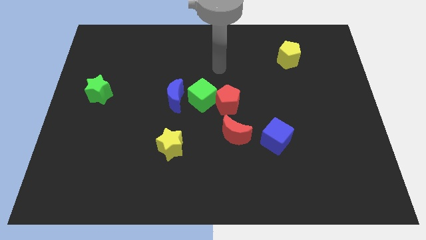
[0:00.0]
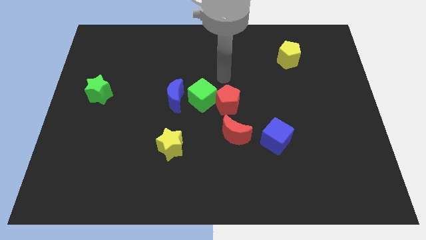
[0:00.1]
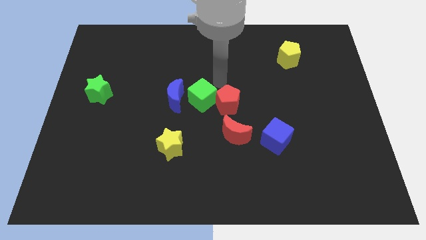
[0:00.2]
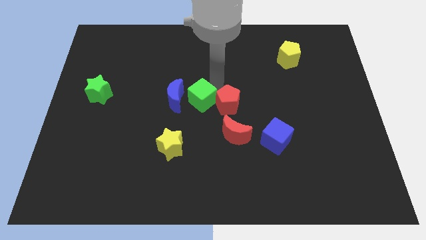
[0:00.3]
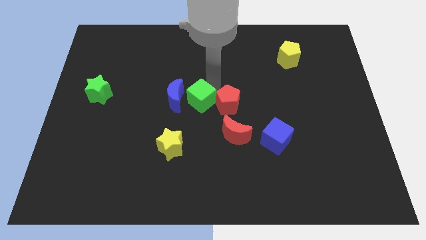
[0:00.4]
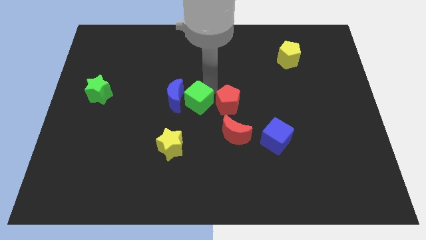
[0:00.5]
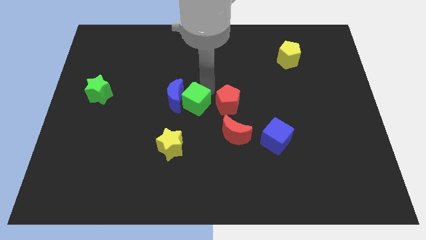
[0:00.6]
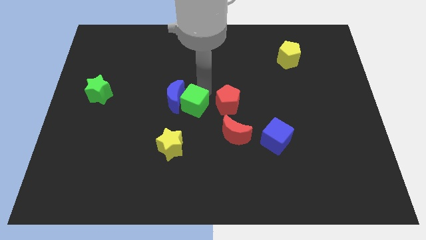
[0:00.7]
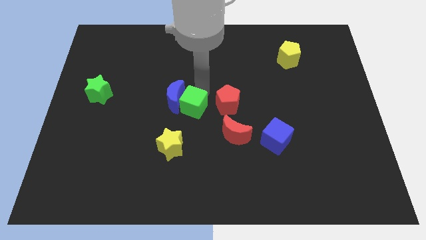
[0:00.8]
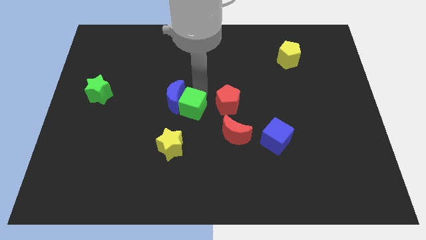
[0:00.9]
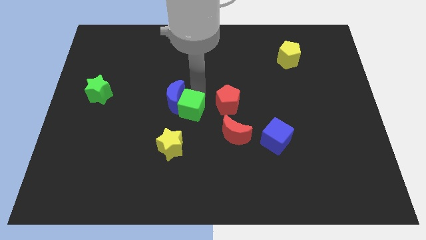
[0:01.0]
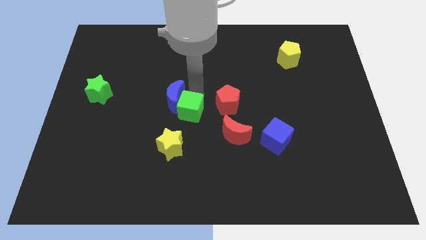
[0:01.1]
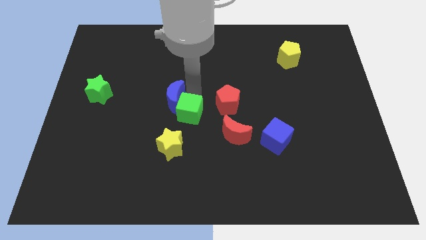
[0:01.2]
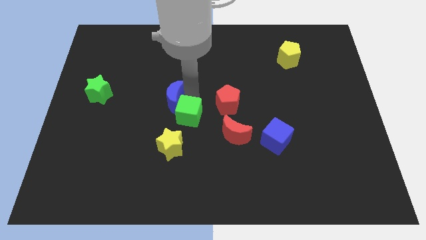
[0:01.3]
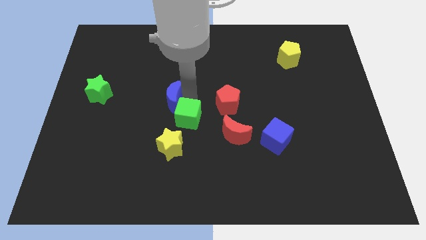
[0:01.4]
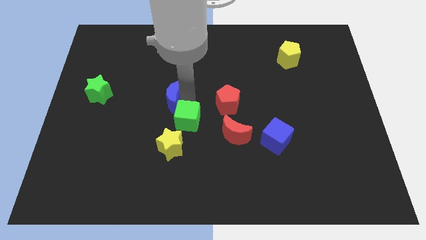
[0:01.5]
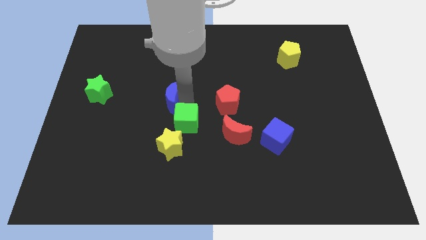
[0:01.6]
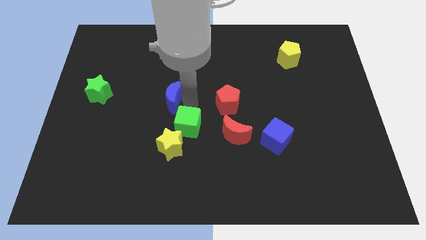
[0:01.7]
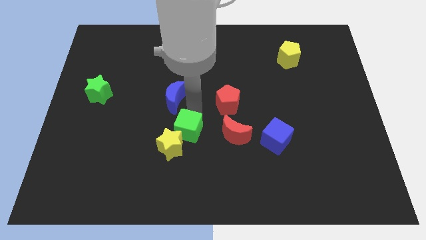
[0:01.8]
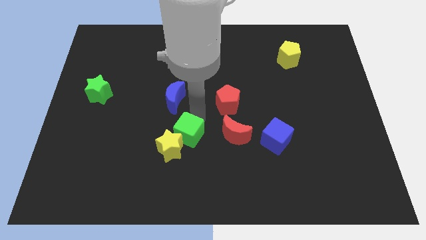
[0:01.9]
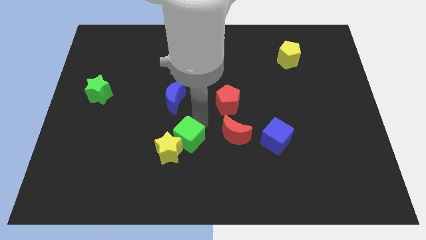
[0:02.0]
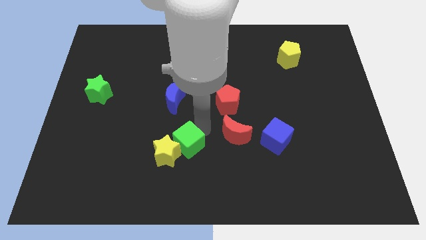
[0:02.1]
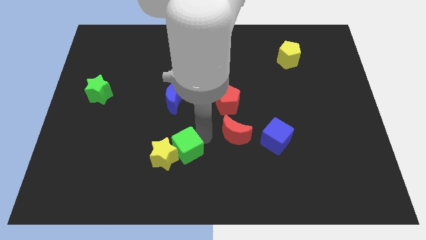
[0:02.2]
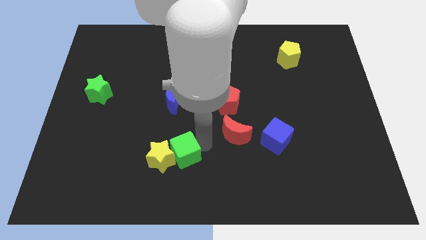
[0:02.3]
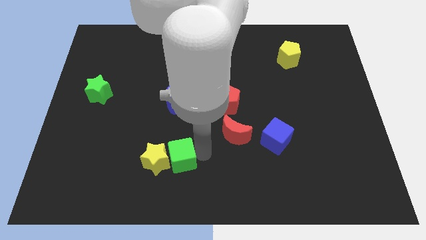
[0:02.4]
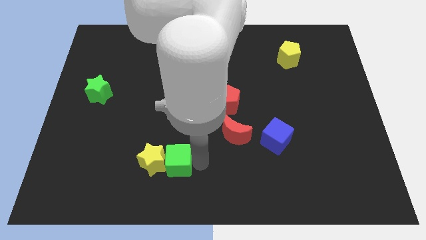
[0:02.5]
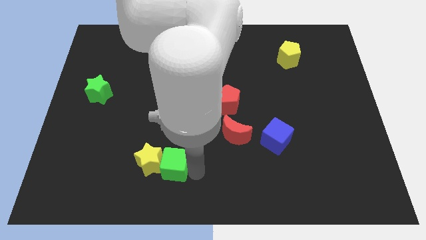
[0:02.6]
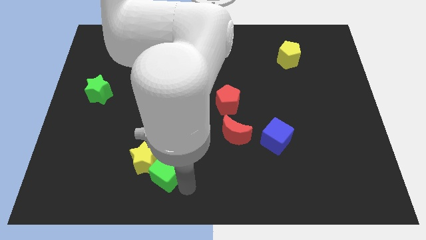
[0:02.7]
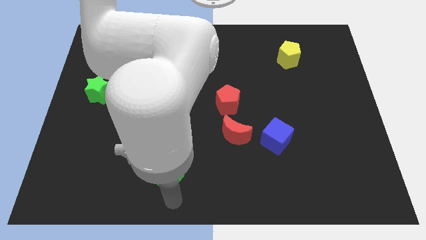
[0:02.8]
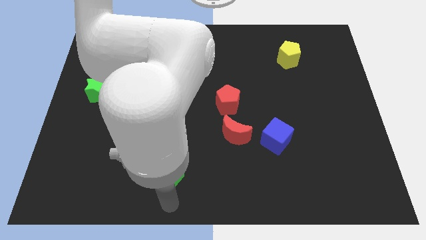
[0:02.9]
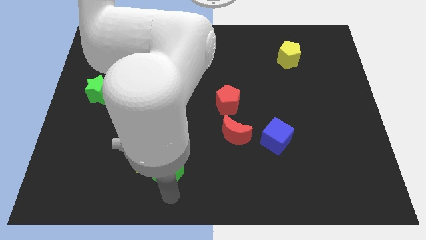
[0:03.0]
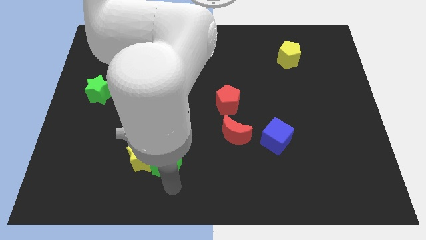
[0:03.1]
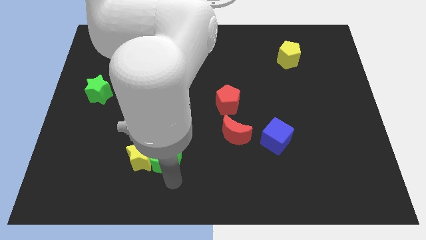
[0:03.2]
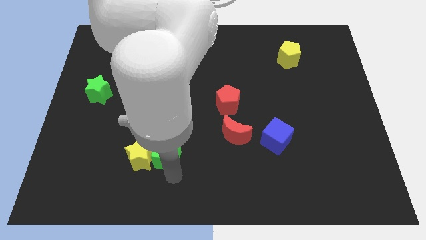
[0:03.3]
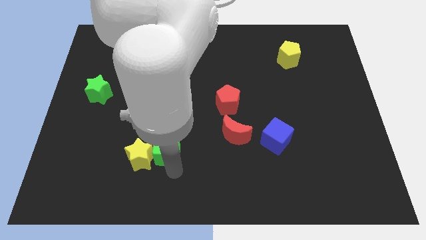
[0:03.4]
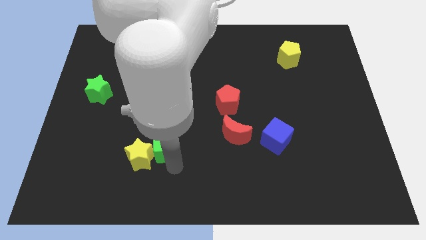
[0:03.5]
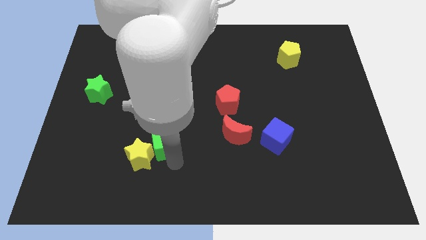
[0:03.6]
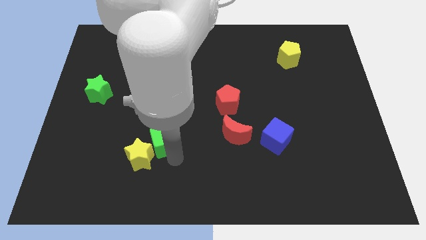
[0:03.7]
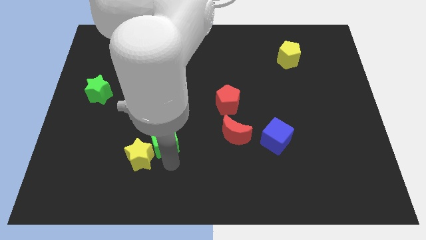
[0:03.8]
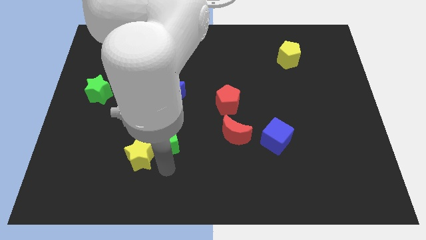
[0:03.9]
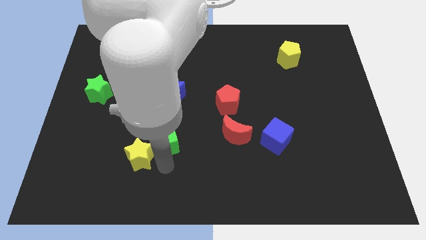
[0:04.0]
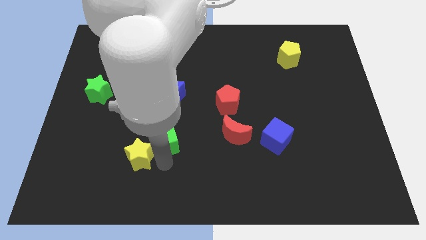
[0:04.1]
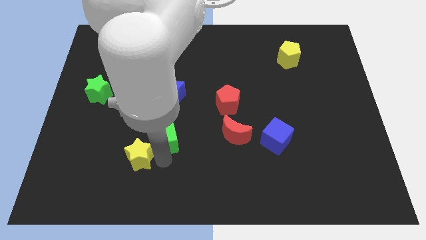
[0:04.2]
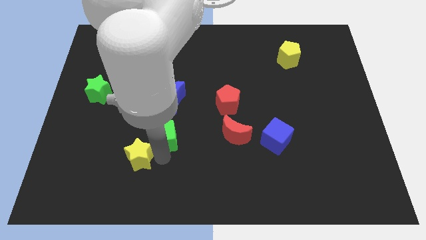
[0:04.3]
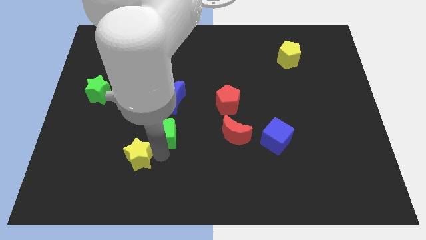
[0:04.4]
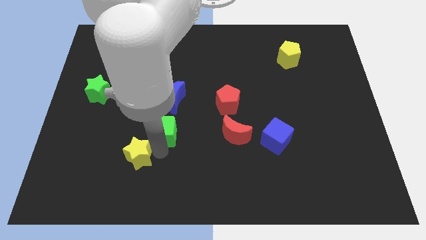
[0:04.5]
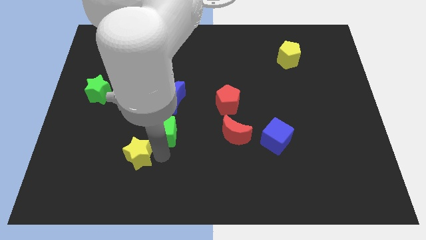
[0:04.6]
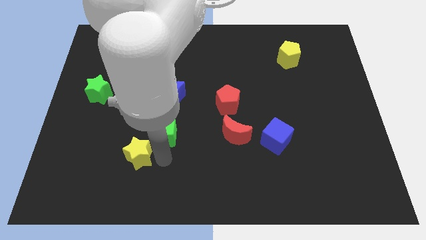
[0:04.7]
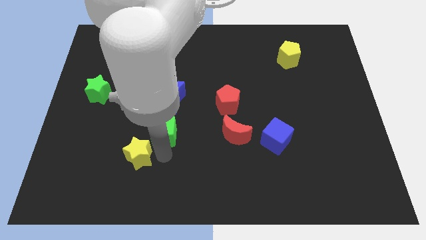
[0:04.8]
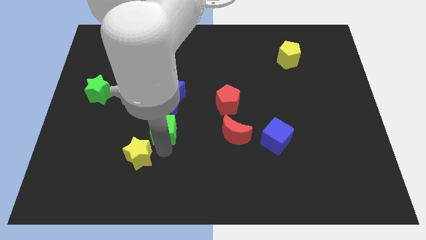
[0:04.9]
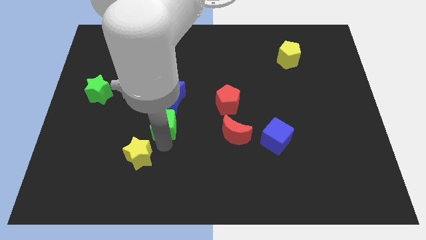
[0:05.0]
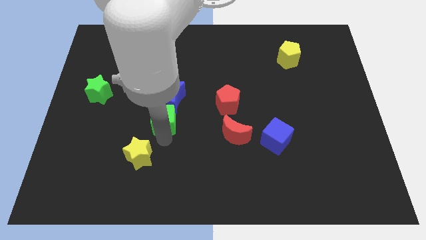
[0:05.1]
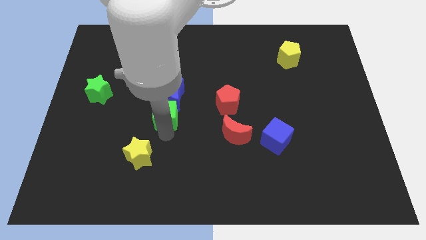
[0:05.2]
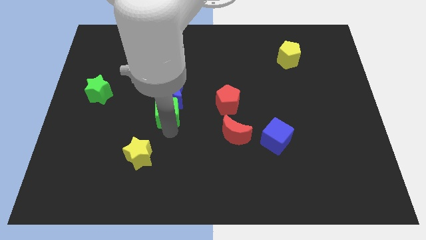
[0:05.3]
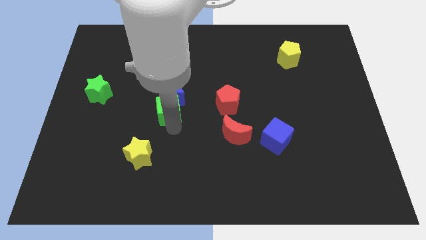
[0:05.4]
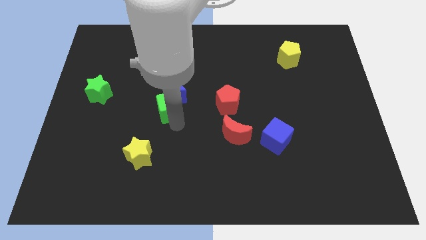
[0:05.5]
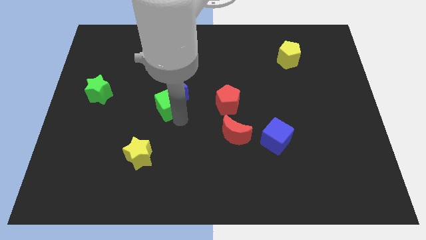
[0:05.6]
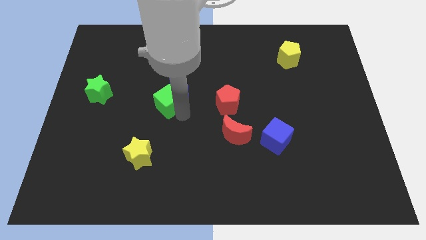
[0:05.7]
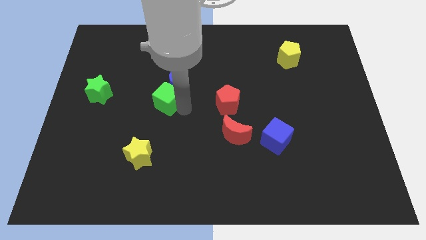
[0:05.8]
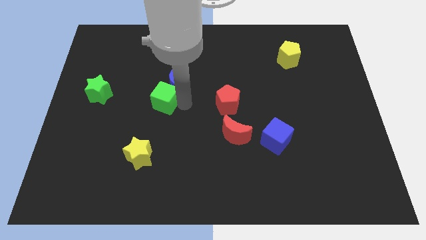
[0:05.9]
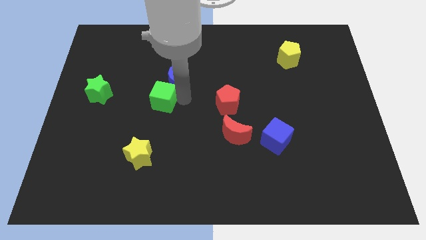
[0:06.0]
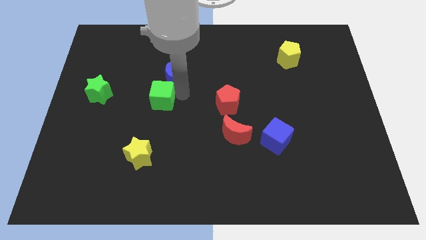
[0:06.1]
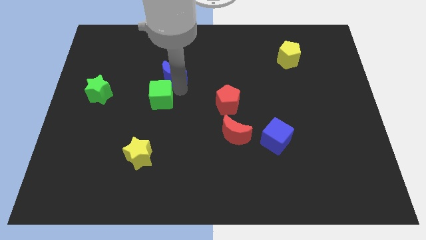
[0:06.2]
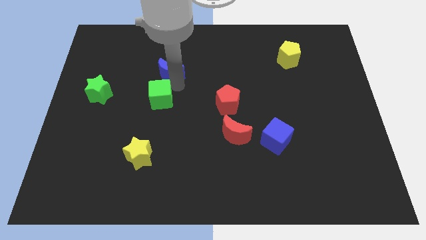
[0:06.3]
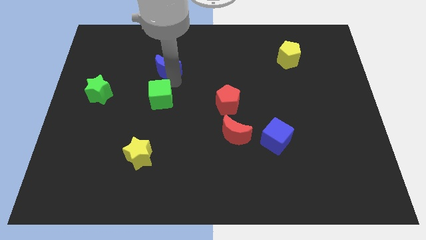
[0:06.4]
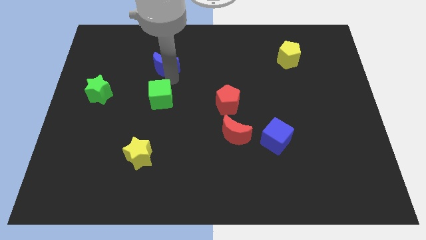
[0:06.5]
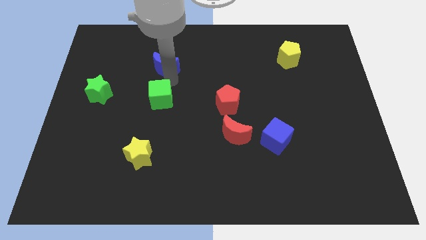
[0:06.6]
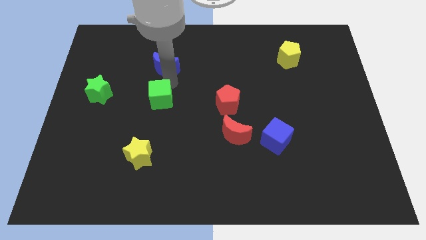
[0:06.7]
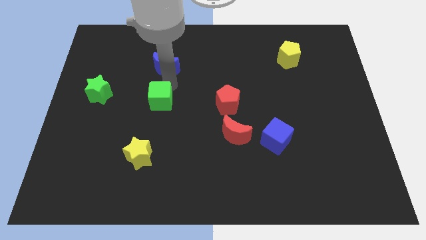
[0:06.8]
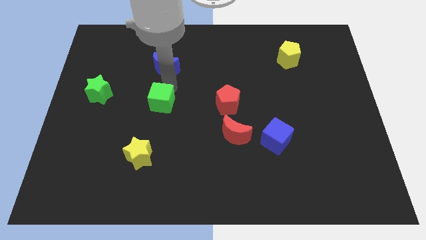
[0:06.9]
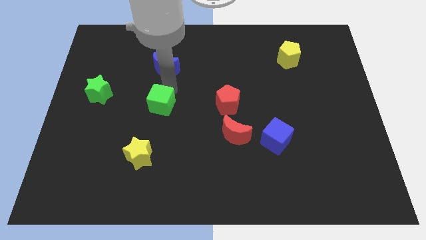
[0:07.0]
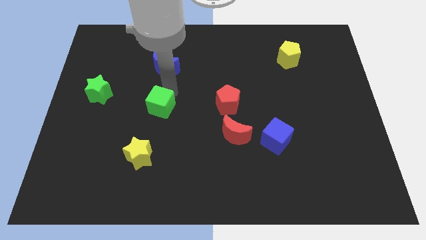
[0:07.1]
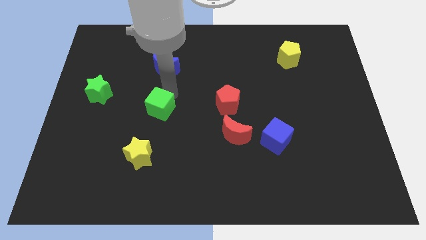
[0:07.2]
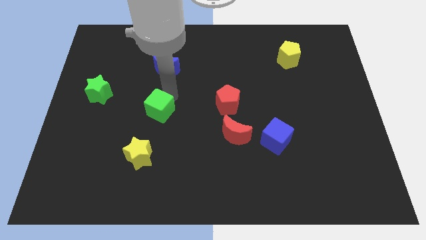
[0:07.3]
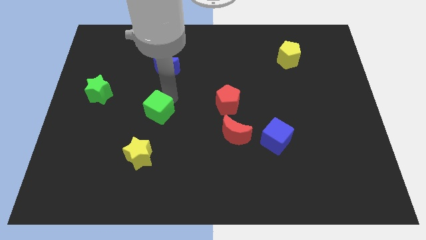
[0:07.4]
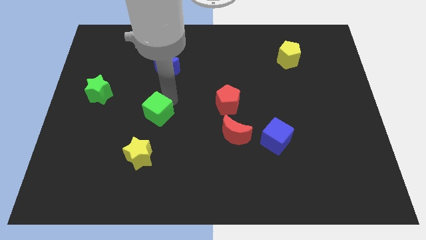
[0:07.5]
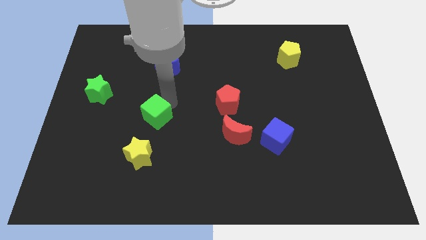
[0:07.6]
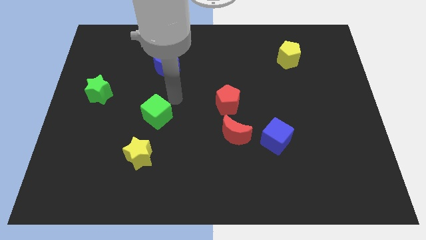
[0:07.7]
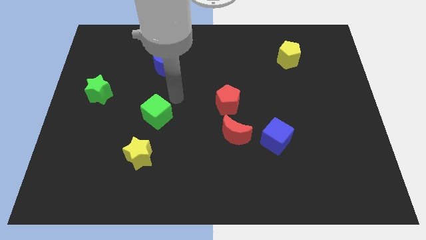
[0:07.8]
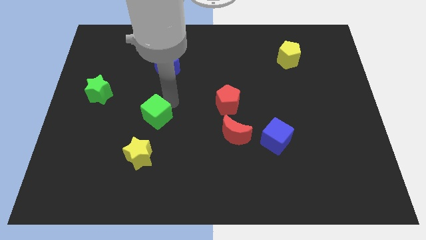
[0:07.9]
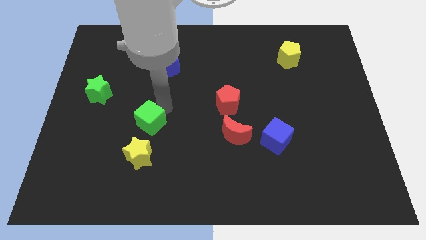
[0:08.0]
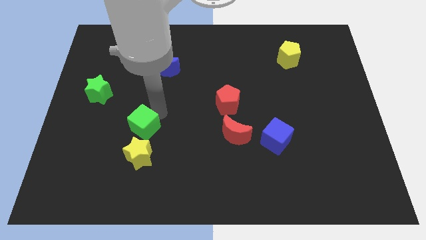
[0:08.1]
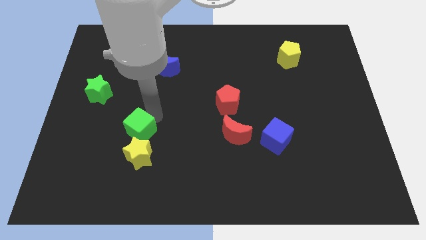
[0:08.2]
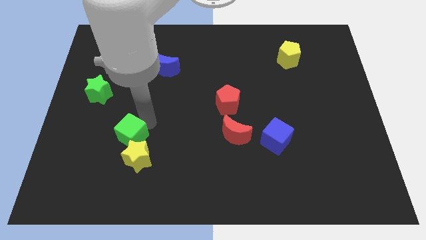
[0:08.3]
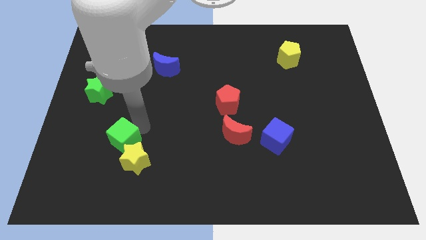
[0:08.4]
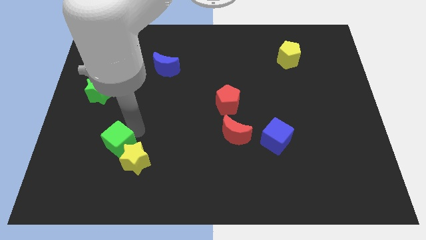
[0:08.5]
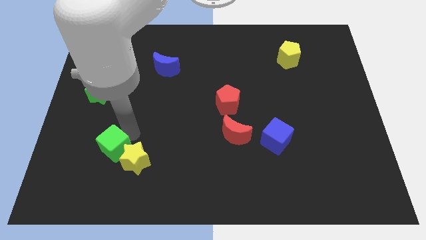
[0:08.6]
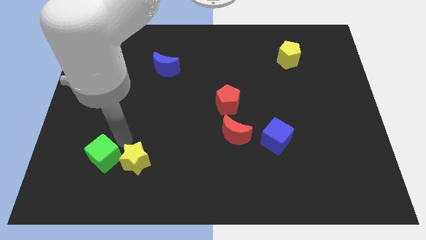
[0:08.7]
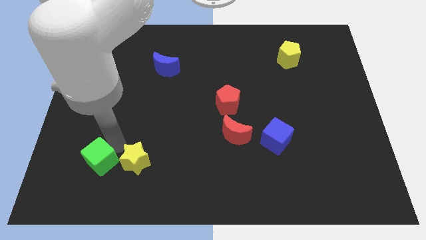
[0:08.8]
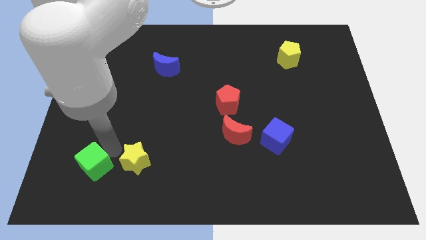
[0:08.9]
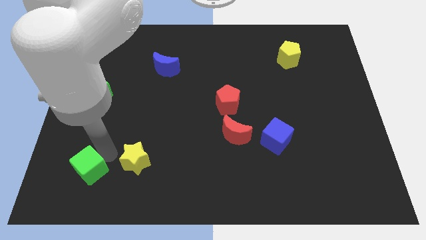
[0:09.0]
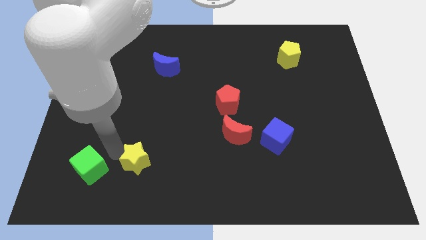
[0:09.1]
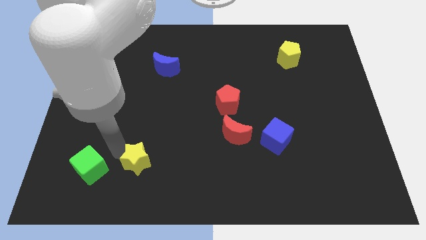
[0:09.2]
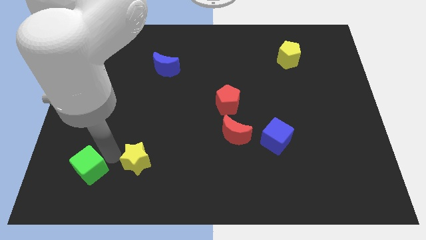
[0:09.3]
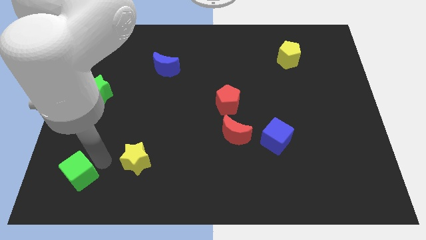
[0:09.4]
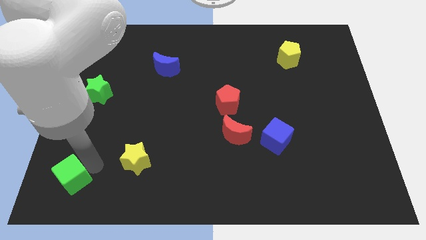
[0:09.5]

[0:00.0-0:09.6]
put the green cube to the bottom left corner
